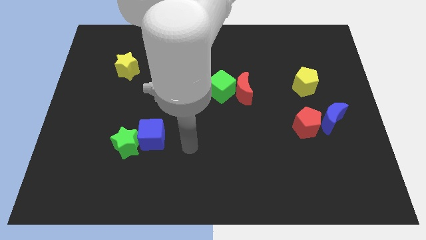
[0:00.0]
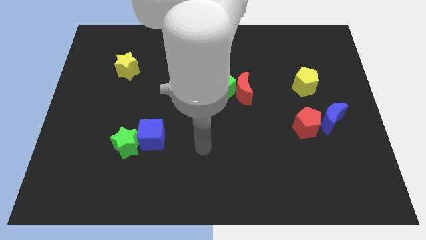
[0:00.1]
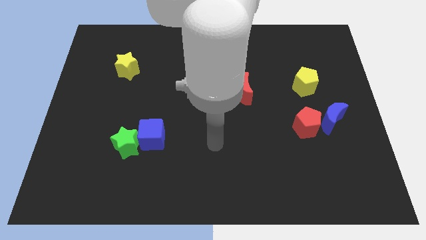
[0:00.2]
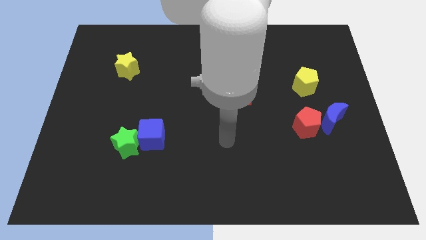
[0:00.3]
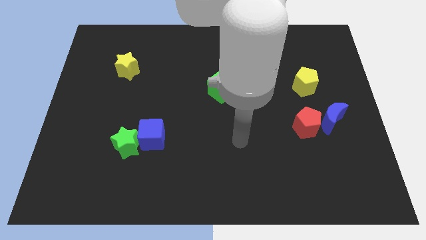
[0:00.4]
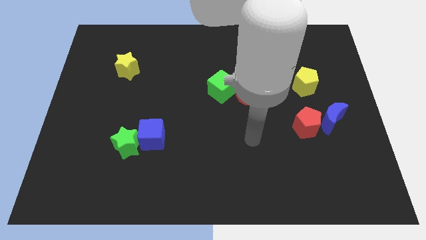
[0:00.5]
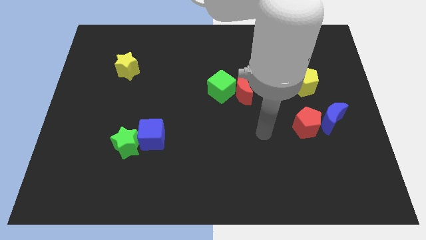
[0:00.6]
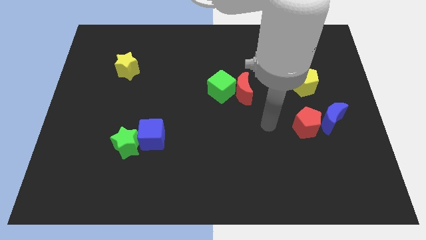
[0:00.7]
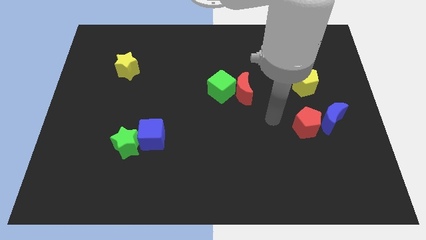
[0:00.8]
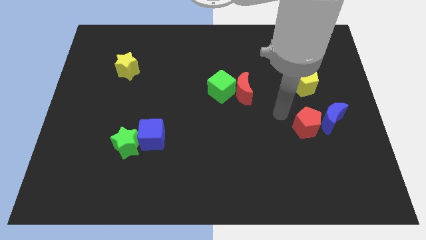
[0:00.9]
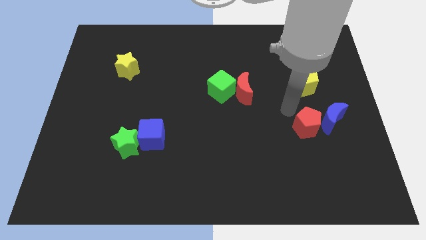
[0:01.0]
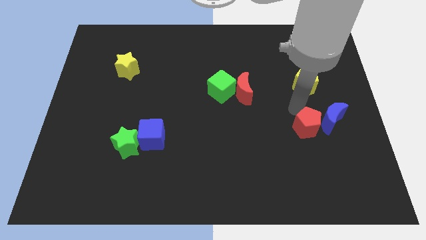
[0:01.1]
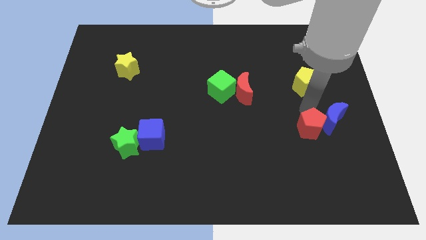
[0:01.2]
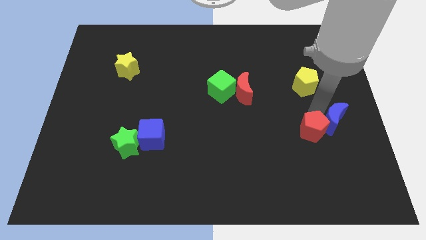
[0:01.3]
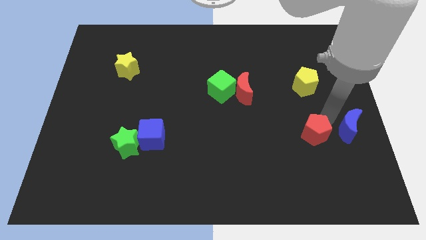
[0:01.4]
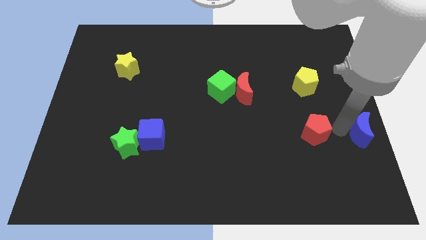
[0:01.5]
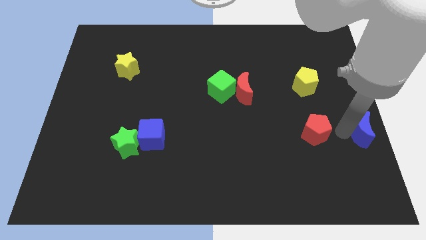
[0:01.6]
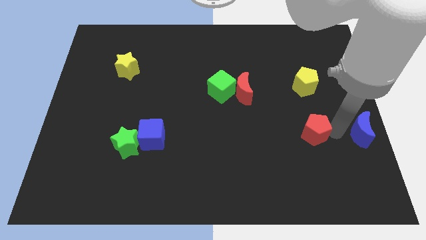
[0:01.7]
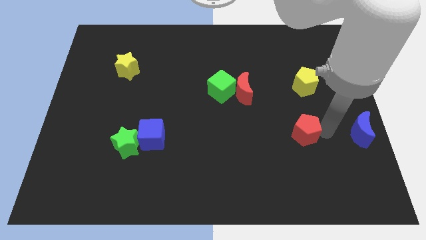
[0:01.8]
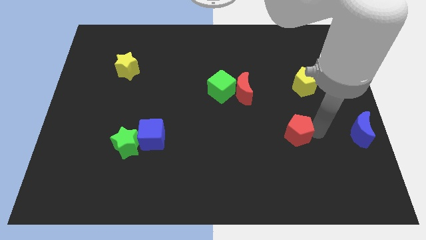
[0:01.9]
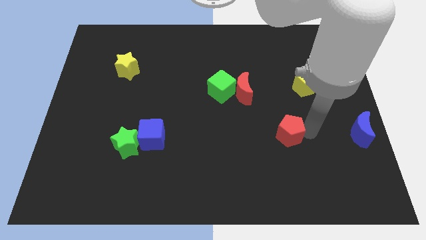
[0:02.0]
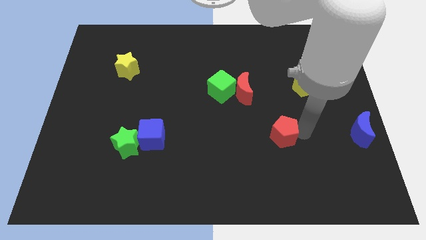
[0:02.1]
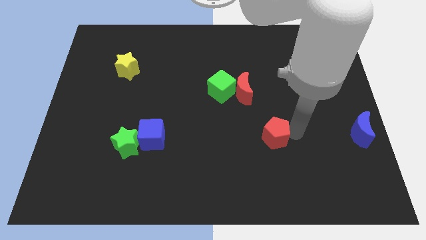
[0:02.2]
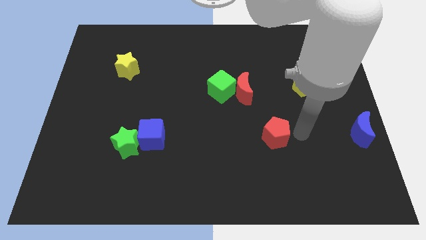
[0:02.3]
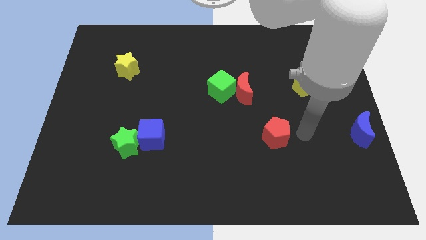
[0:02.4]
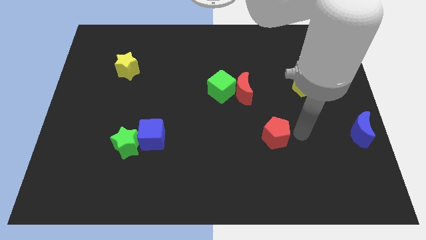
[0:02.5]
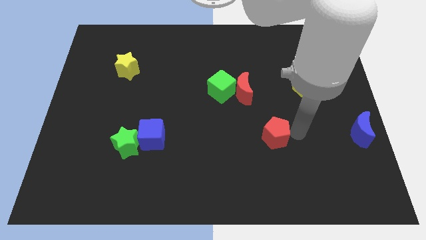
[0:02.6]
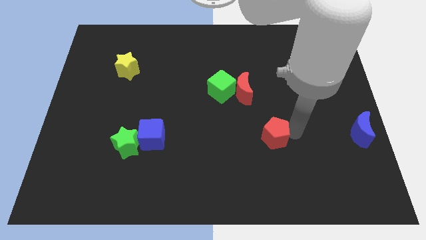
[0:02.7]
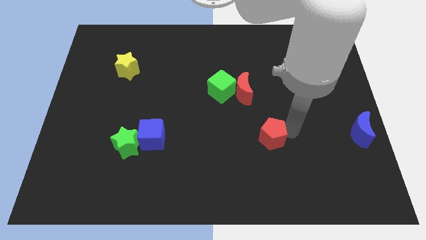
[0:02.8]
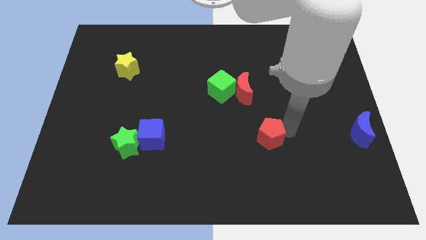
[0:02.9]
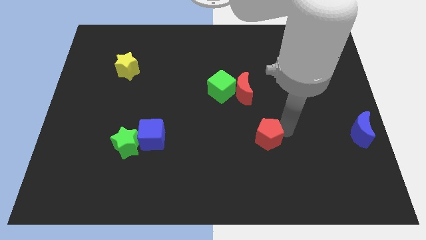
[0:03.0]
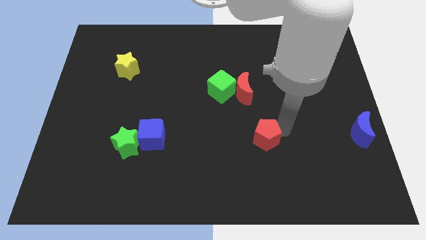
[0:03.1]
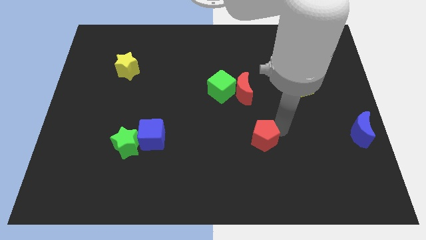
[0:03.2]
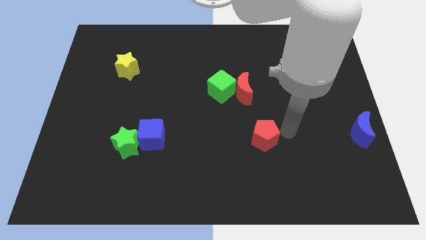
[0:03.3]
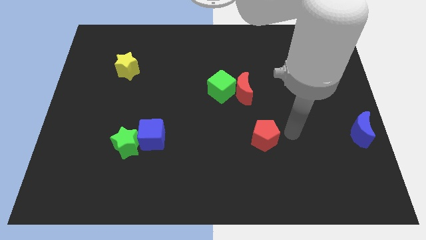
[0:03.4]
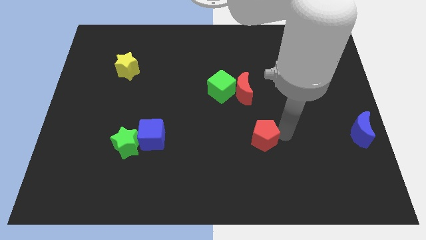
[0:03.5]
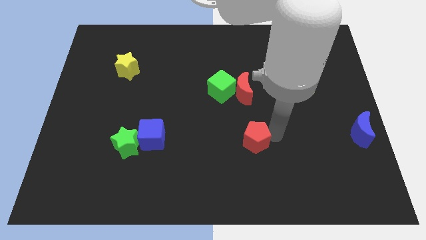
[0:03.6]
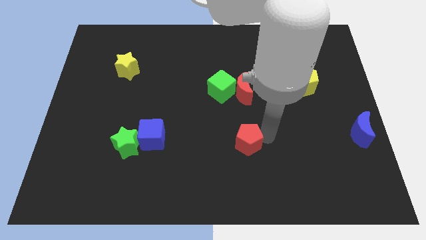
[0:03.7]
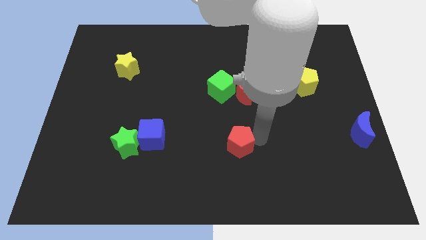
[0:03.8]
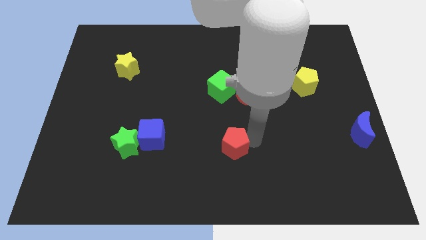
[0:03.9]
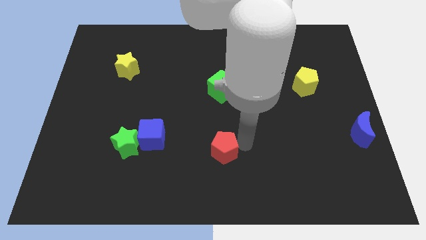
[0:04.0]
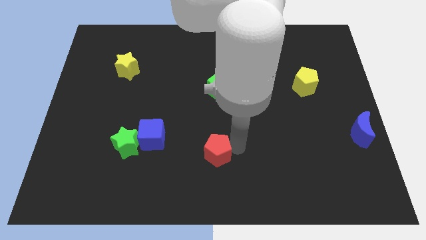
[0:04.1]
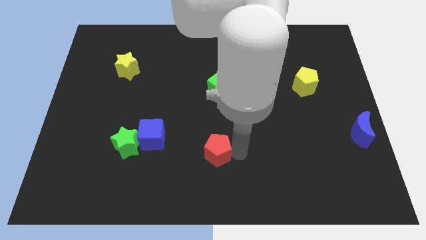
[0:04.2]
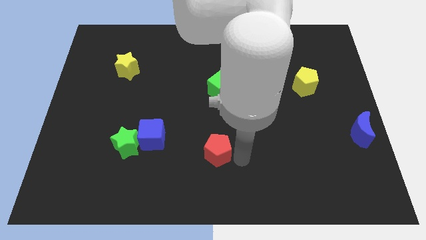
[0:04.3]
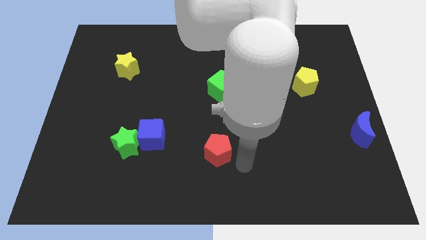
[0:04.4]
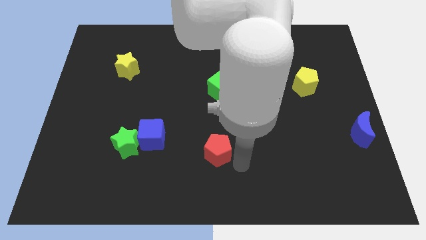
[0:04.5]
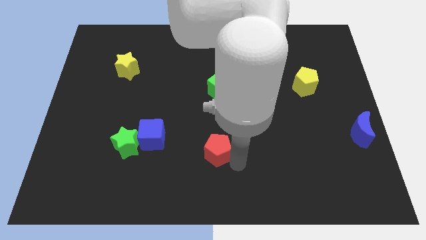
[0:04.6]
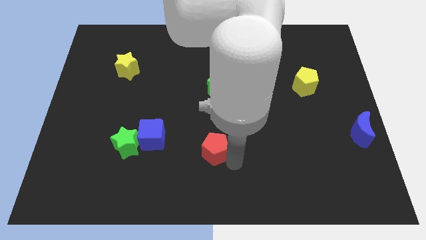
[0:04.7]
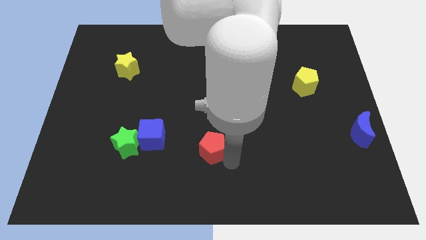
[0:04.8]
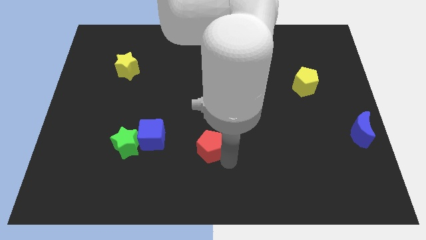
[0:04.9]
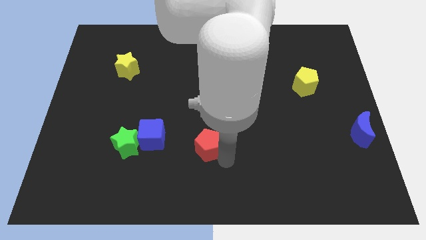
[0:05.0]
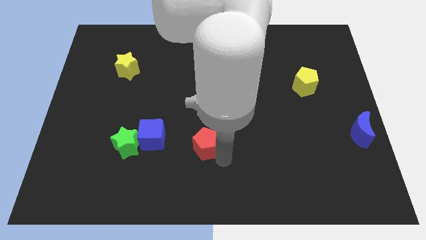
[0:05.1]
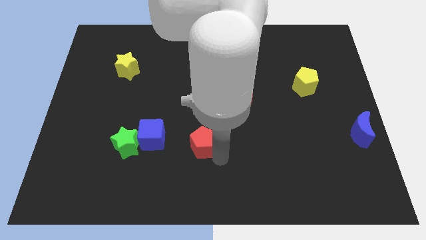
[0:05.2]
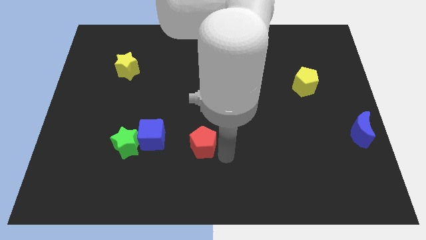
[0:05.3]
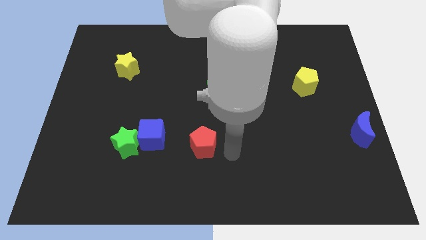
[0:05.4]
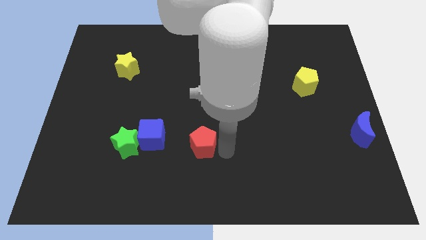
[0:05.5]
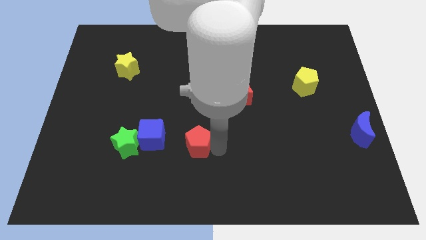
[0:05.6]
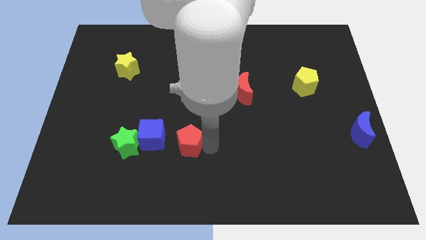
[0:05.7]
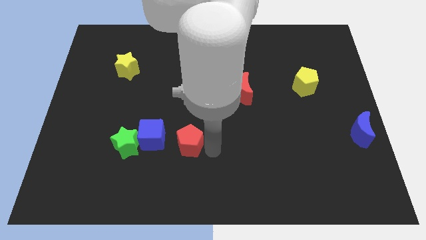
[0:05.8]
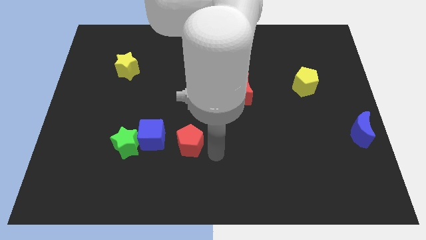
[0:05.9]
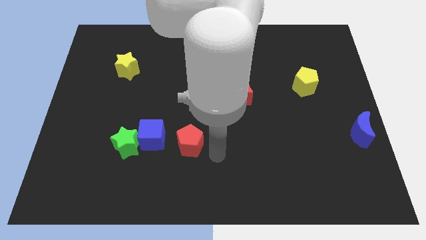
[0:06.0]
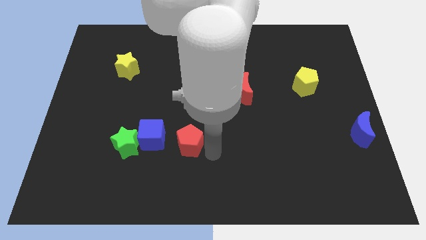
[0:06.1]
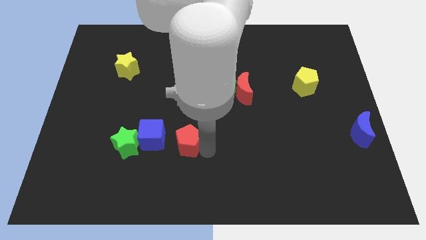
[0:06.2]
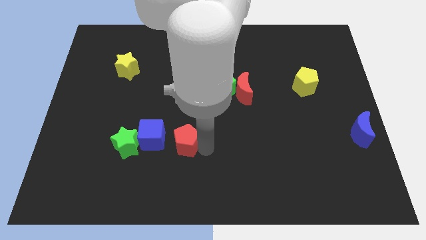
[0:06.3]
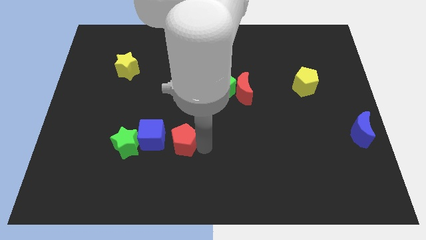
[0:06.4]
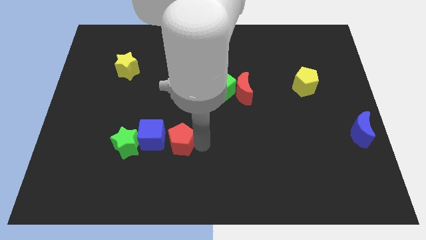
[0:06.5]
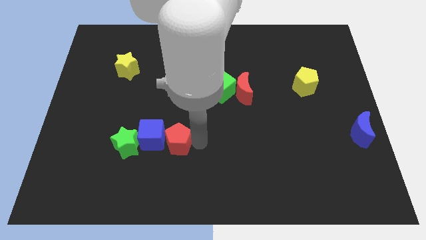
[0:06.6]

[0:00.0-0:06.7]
push the red pentagon towards the blue cube

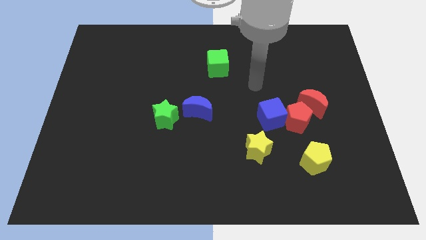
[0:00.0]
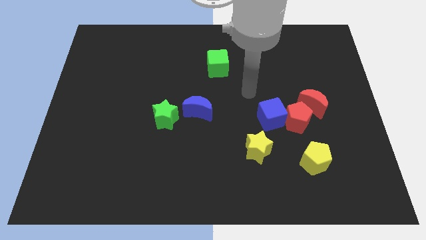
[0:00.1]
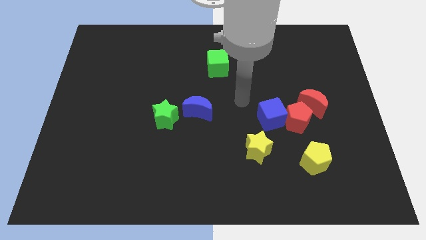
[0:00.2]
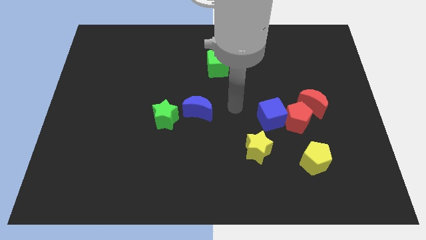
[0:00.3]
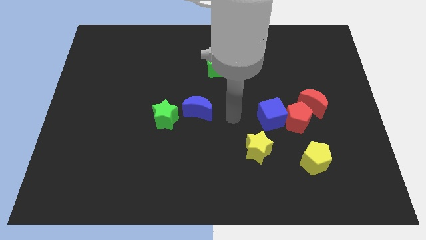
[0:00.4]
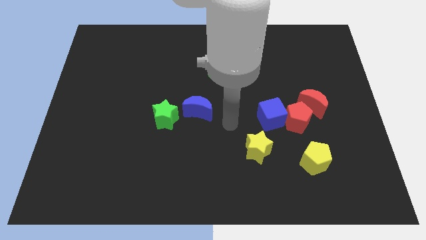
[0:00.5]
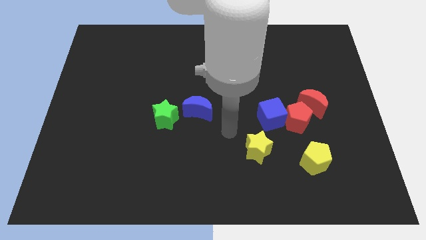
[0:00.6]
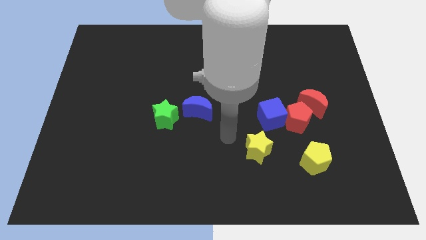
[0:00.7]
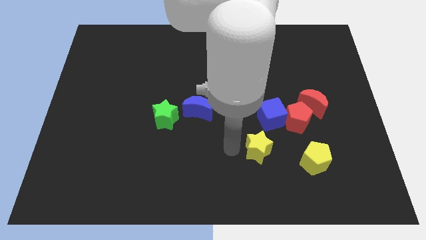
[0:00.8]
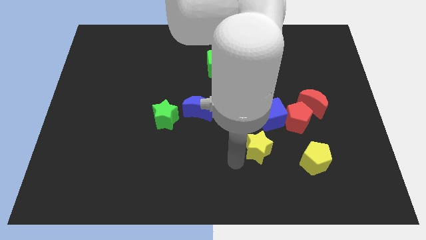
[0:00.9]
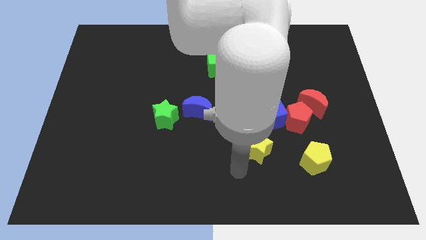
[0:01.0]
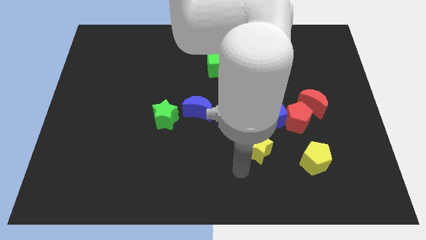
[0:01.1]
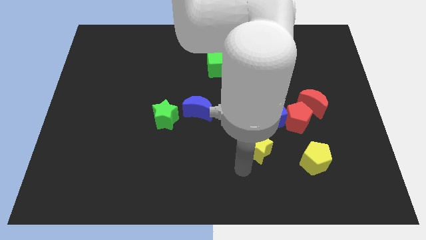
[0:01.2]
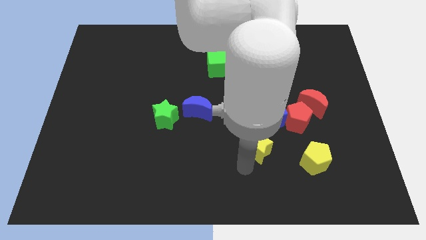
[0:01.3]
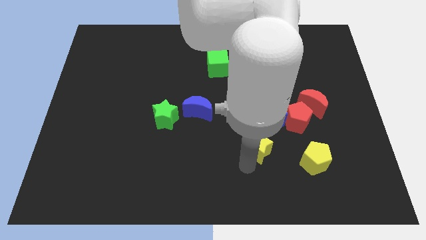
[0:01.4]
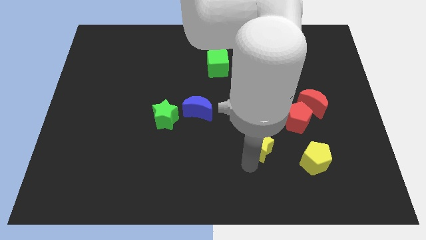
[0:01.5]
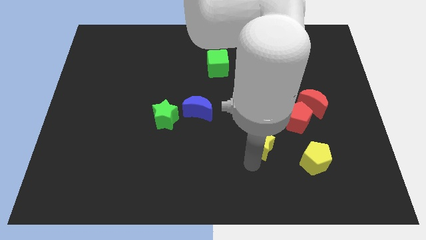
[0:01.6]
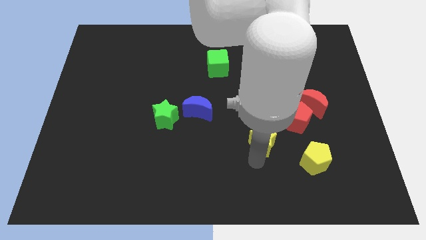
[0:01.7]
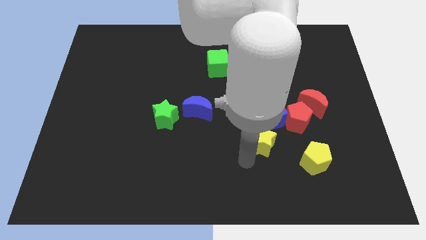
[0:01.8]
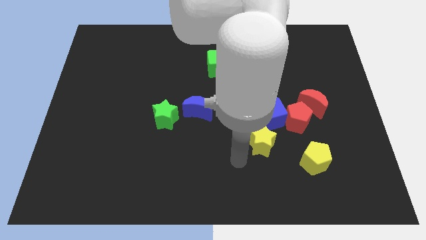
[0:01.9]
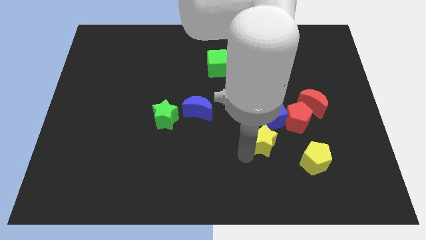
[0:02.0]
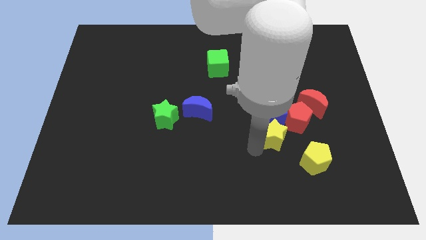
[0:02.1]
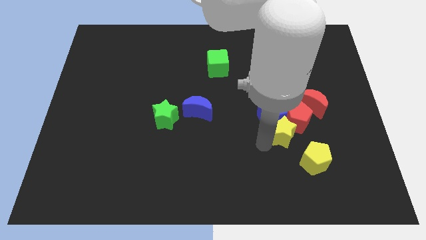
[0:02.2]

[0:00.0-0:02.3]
put the yellow star next to the red pentagon
